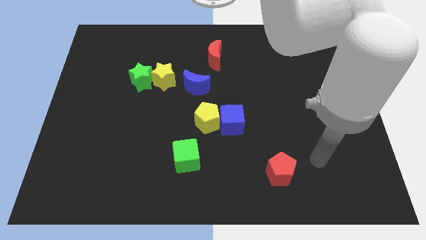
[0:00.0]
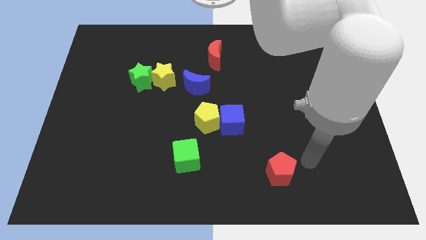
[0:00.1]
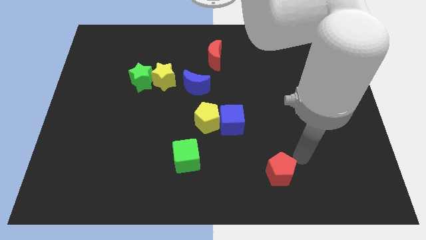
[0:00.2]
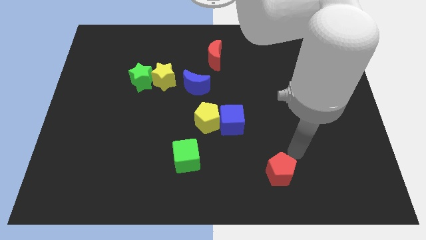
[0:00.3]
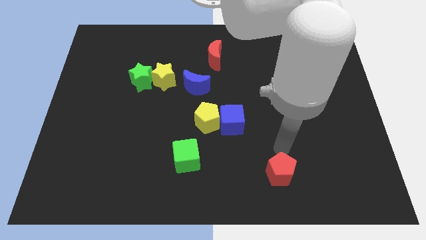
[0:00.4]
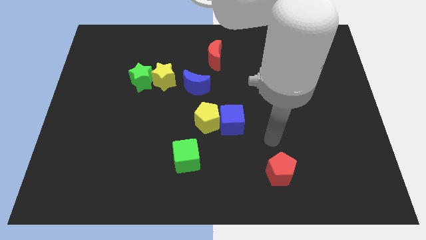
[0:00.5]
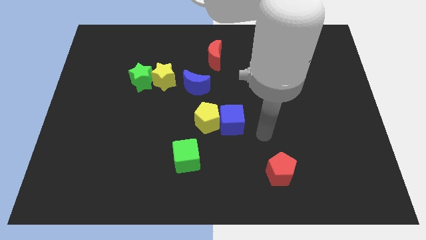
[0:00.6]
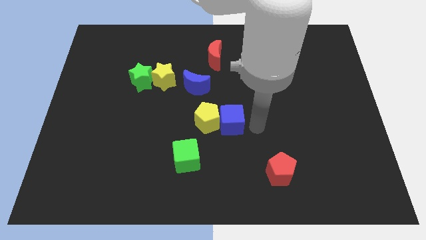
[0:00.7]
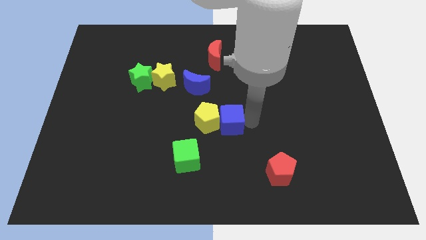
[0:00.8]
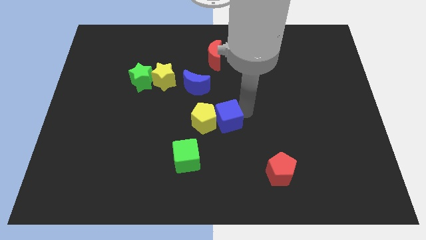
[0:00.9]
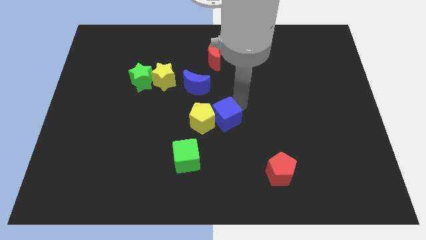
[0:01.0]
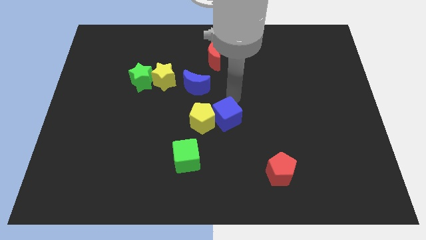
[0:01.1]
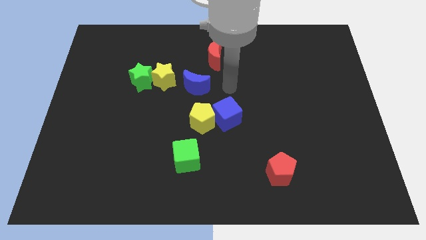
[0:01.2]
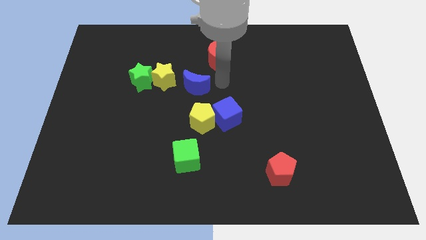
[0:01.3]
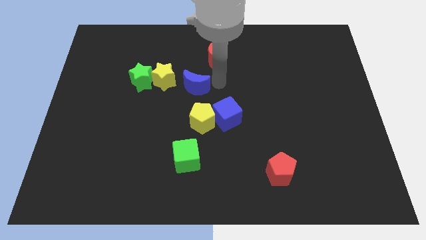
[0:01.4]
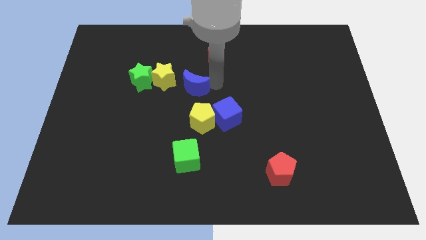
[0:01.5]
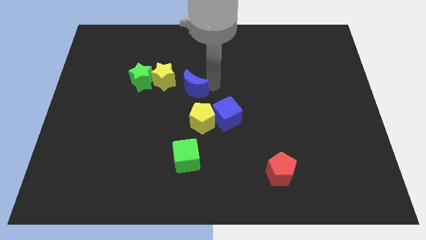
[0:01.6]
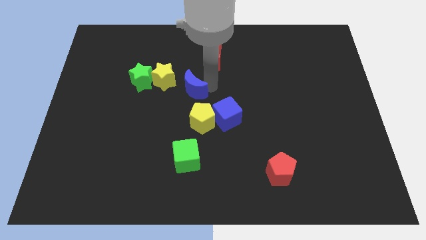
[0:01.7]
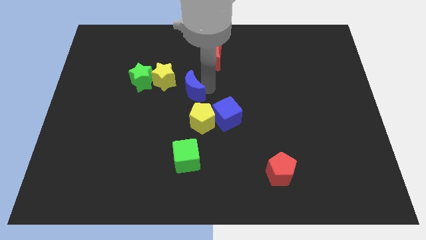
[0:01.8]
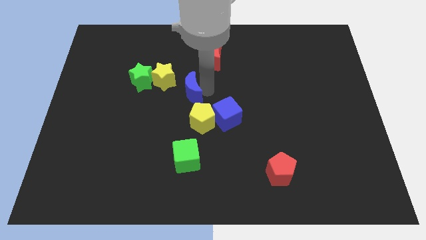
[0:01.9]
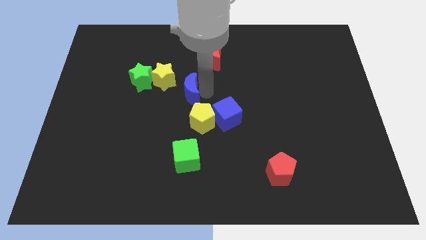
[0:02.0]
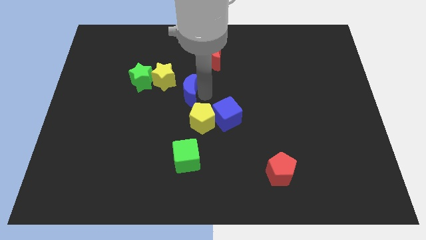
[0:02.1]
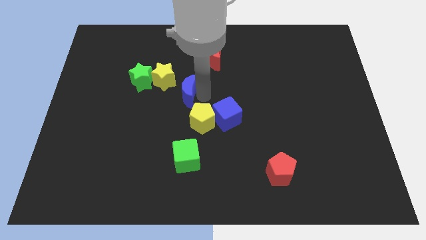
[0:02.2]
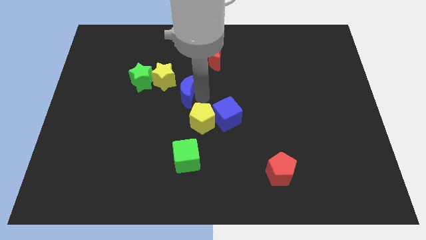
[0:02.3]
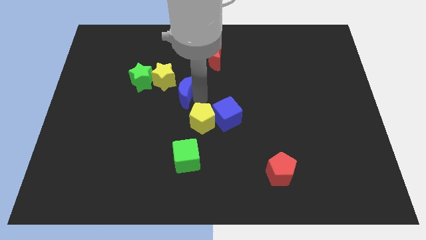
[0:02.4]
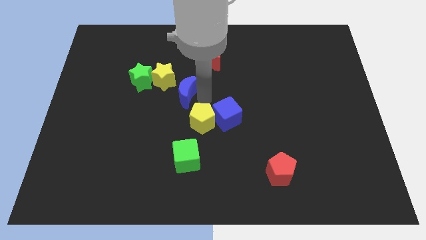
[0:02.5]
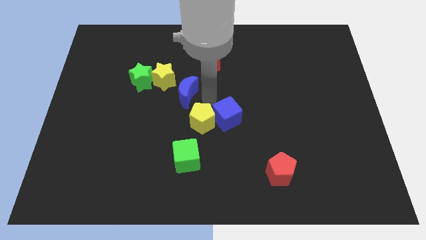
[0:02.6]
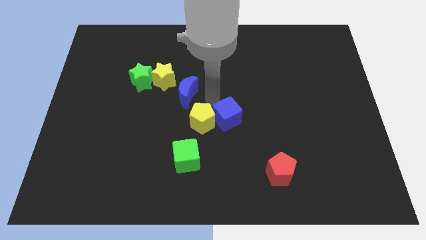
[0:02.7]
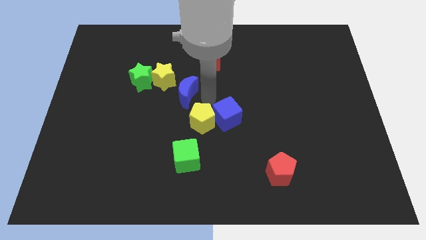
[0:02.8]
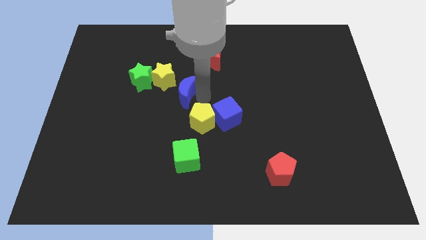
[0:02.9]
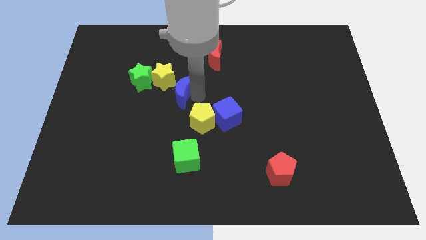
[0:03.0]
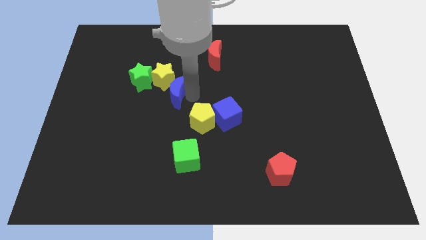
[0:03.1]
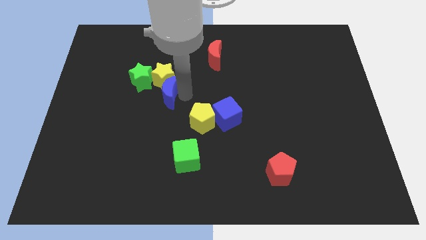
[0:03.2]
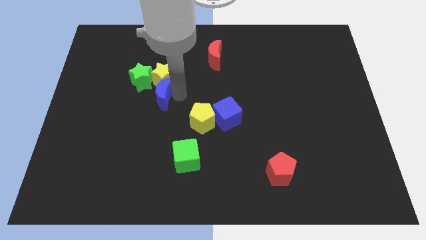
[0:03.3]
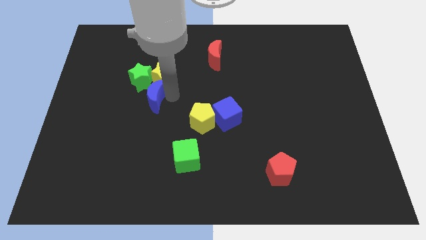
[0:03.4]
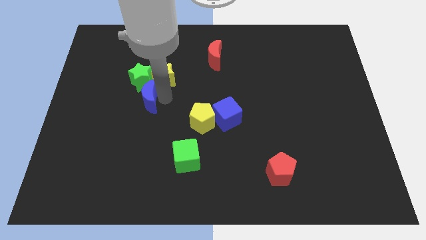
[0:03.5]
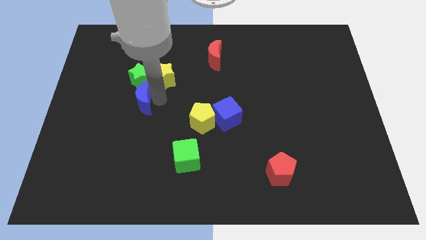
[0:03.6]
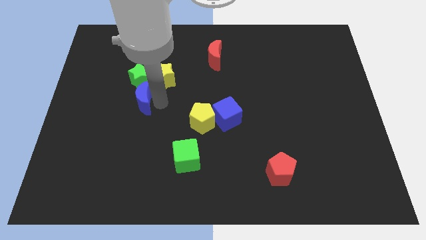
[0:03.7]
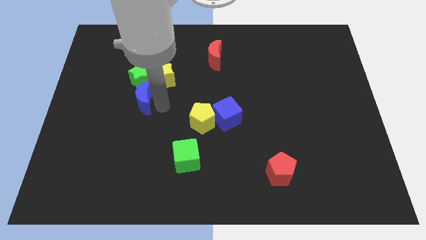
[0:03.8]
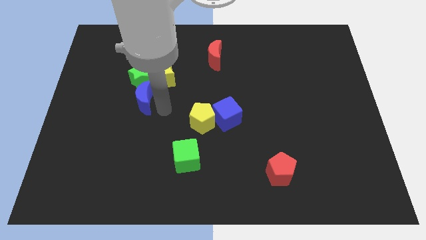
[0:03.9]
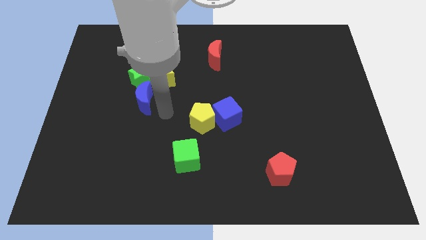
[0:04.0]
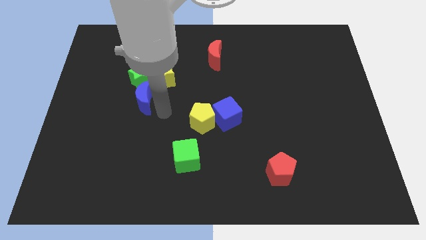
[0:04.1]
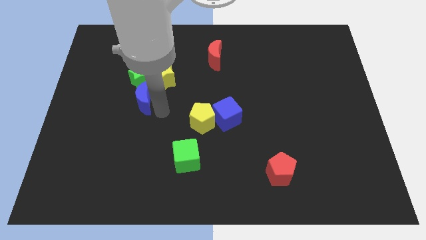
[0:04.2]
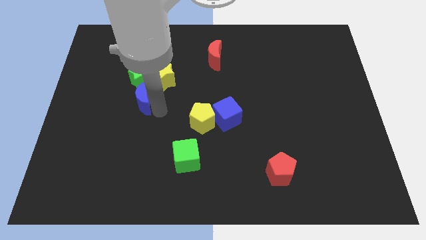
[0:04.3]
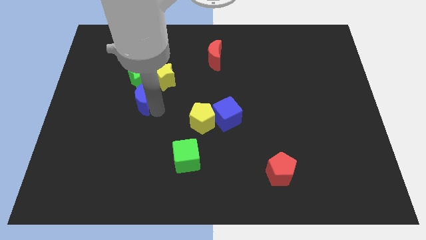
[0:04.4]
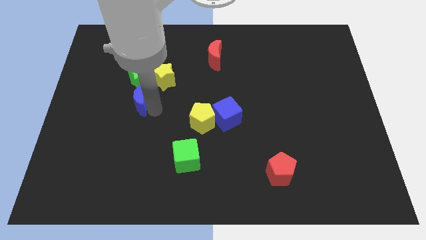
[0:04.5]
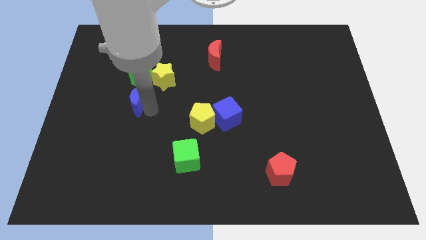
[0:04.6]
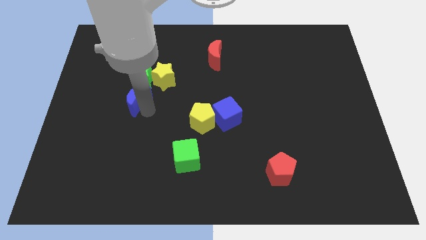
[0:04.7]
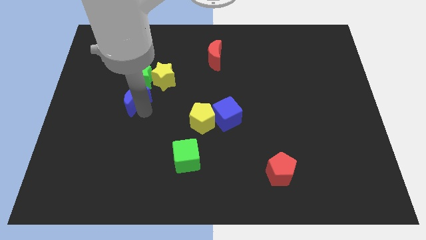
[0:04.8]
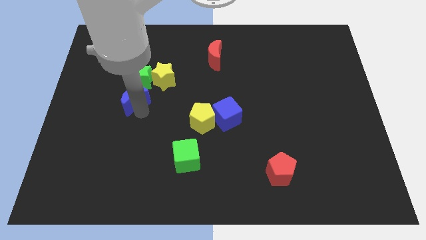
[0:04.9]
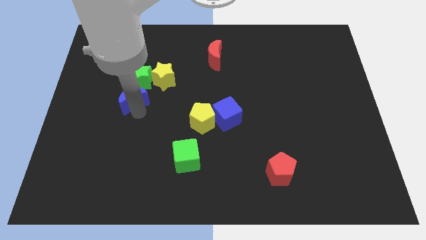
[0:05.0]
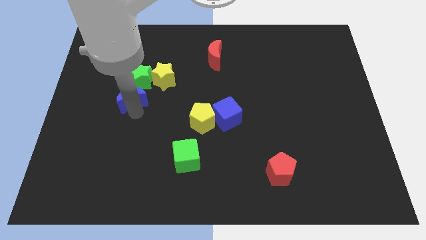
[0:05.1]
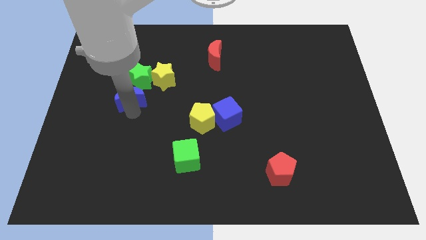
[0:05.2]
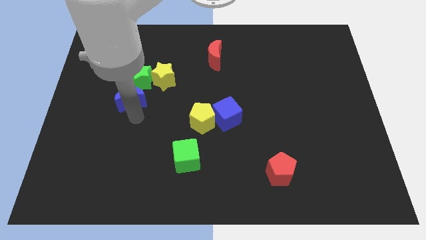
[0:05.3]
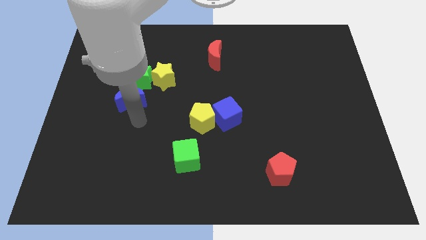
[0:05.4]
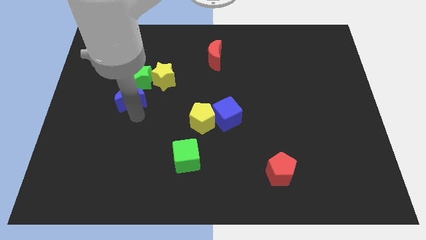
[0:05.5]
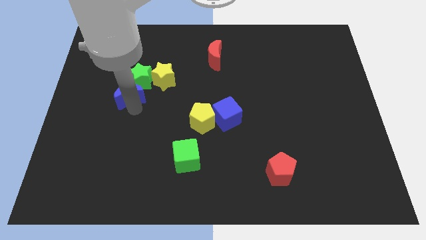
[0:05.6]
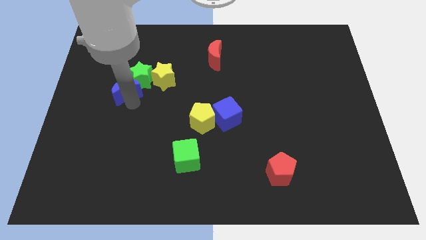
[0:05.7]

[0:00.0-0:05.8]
move the blue moon to the left side of the yellow star
